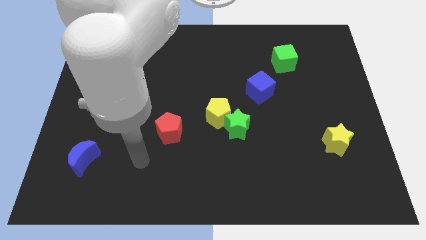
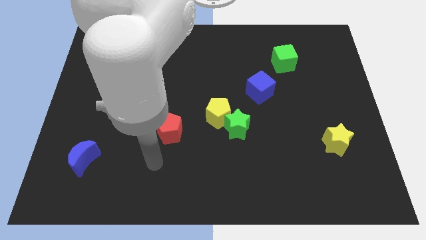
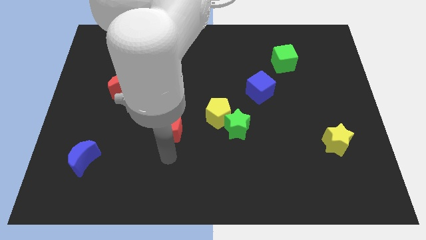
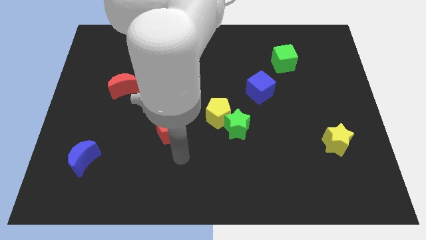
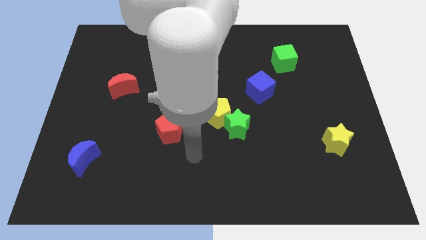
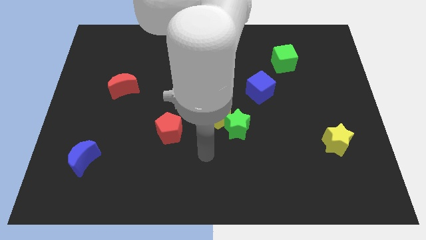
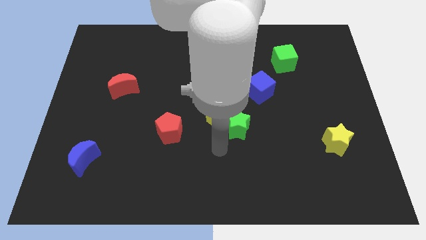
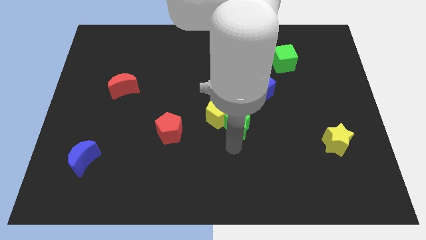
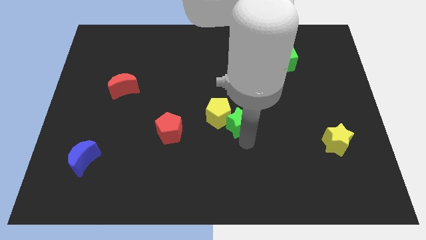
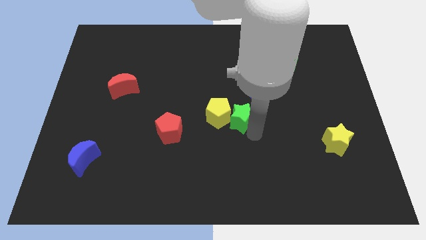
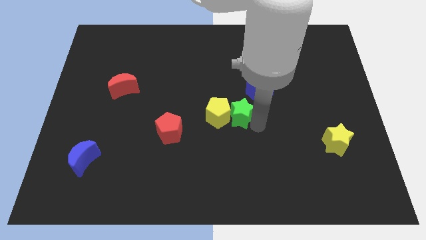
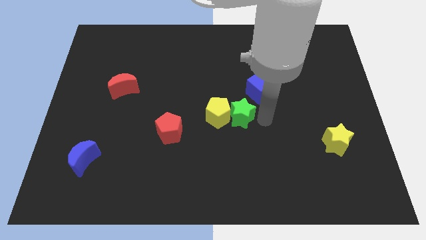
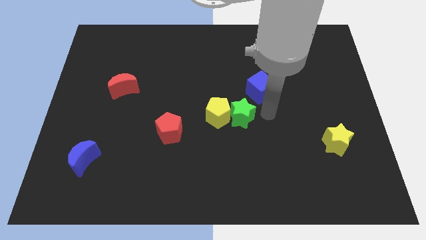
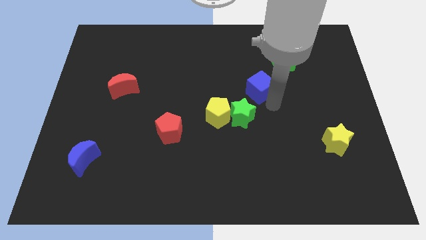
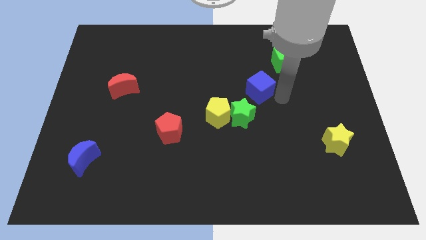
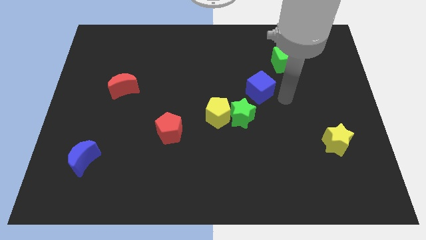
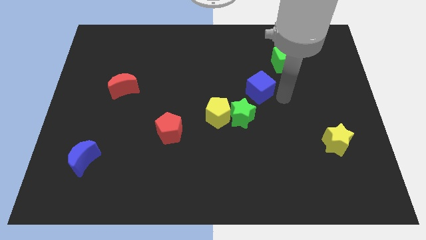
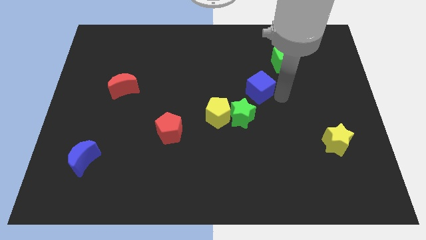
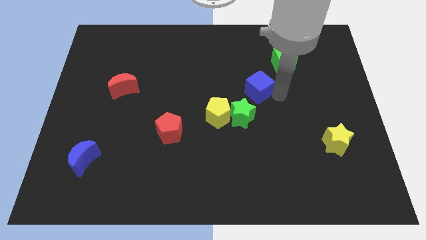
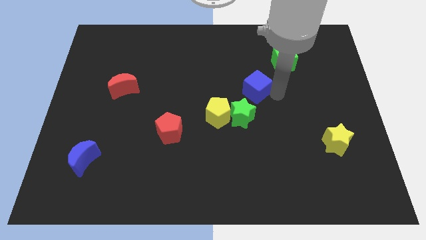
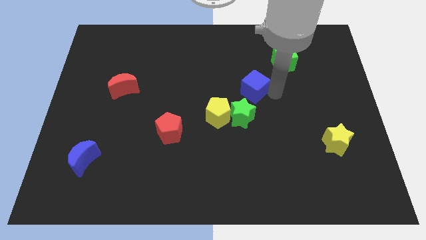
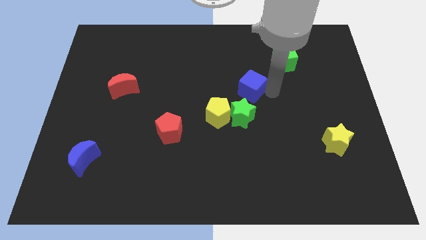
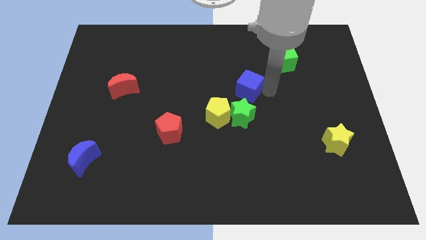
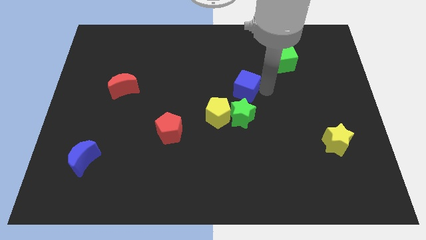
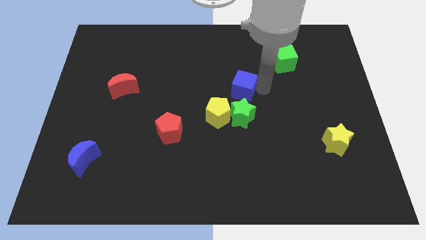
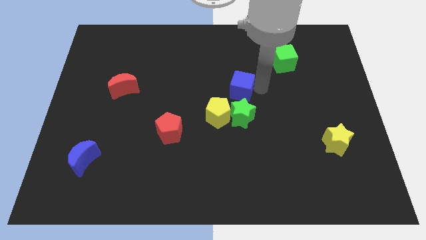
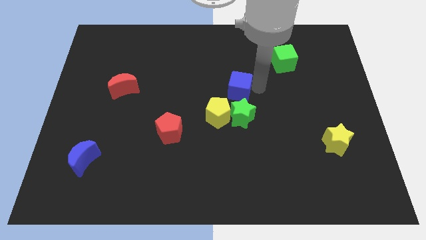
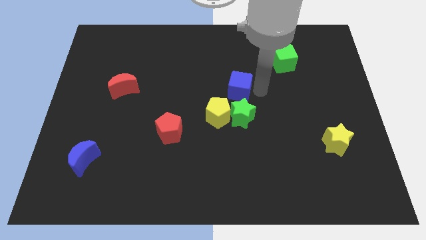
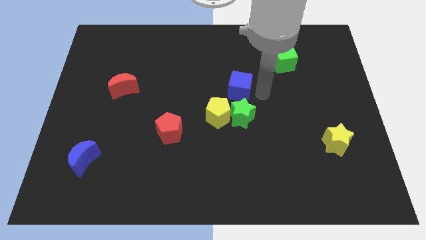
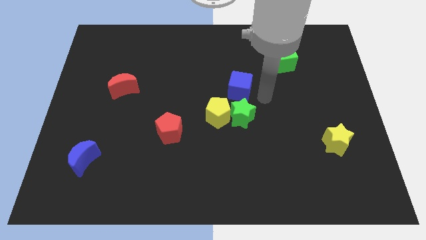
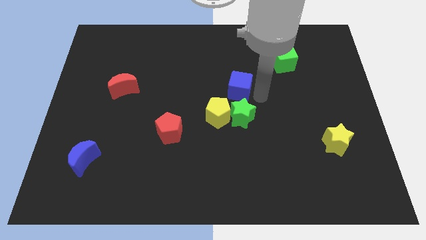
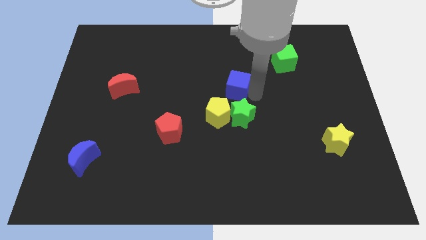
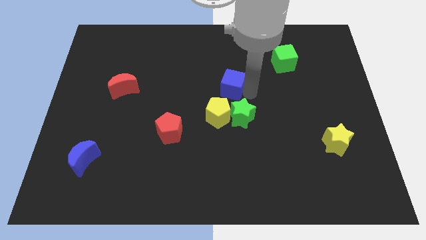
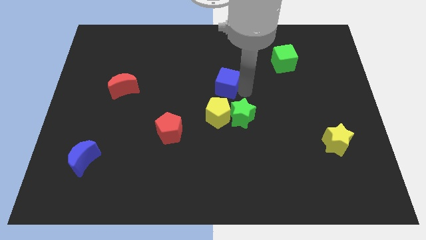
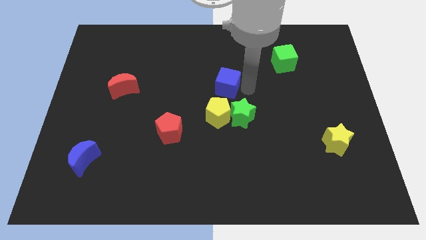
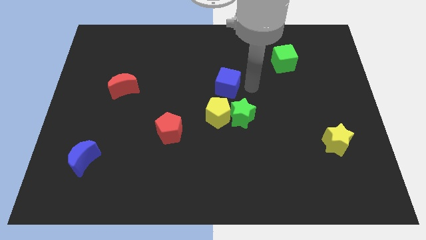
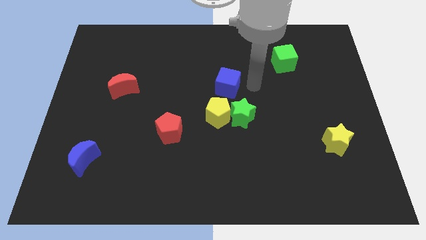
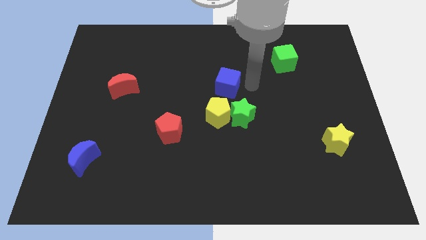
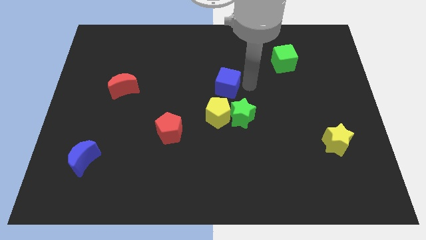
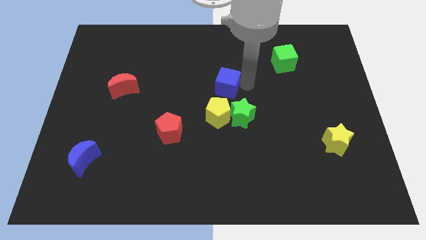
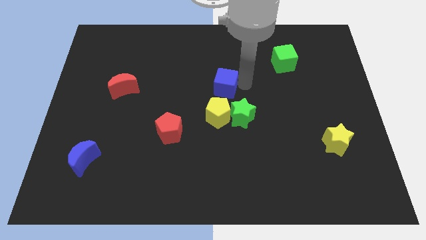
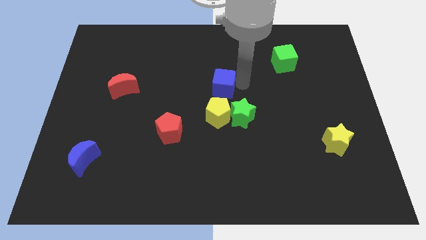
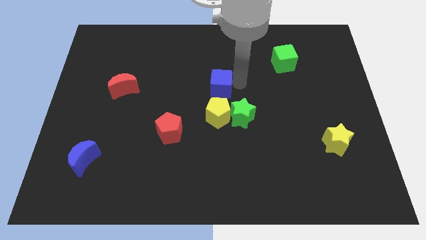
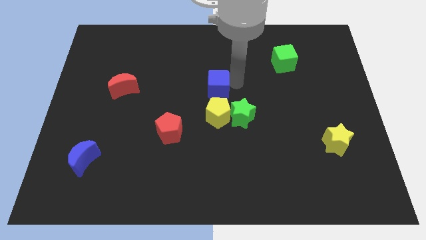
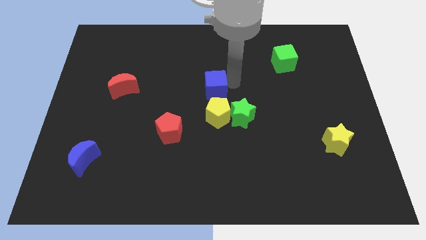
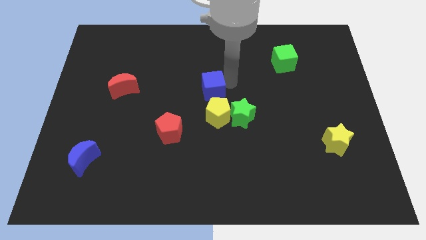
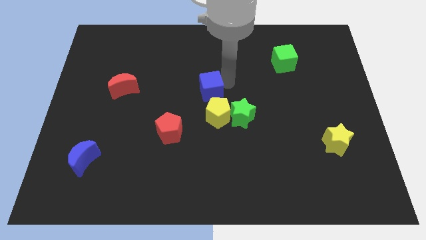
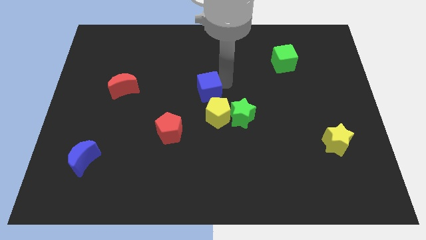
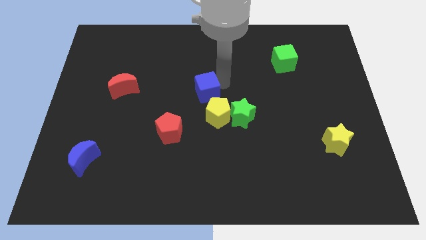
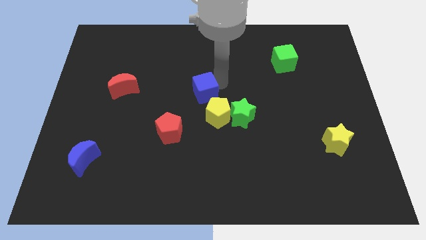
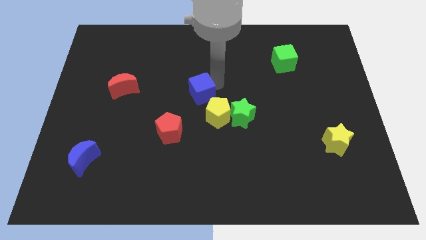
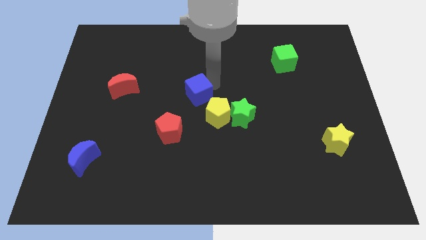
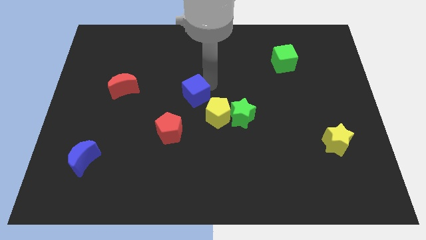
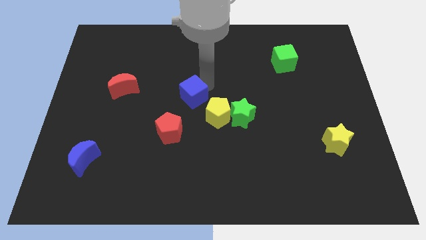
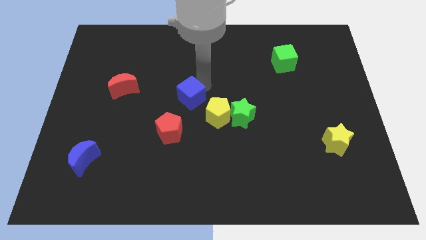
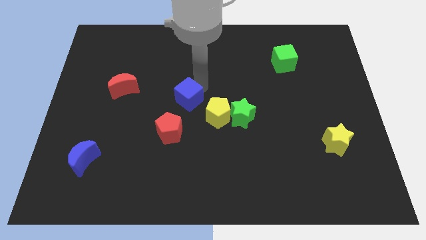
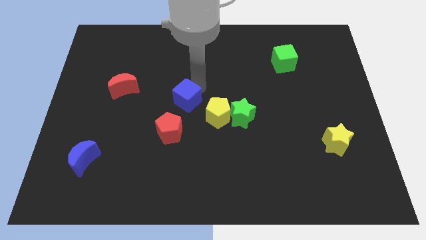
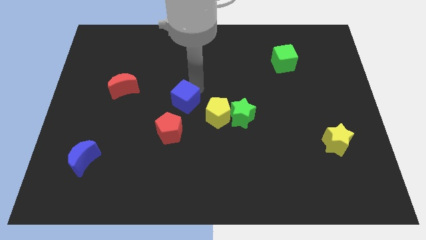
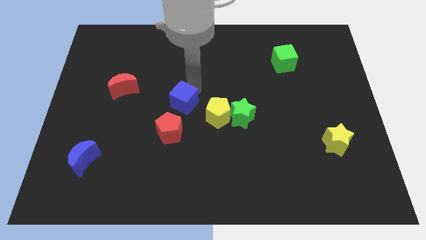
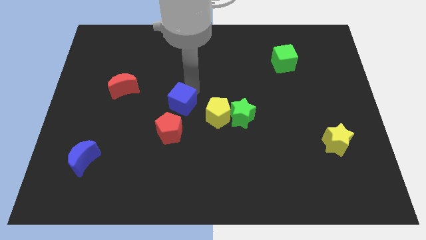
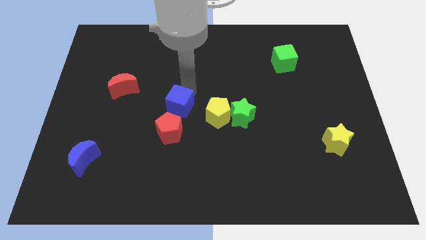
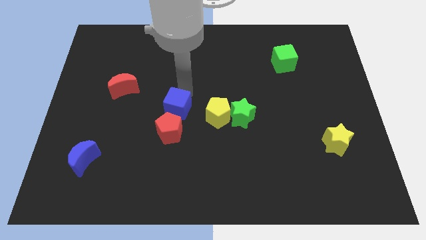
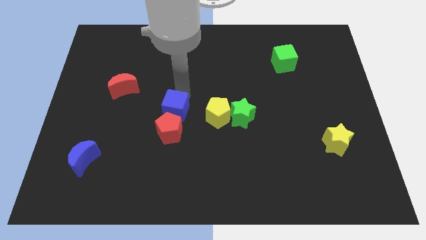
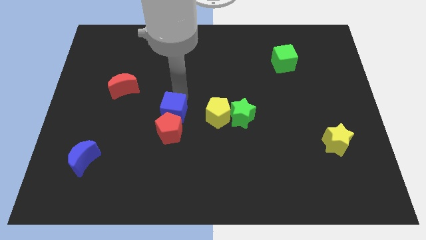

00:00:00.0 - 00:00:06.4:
slide the blue cube to the red pentagon

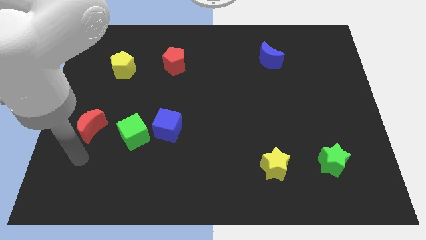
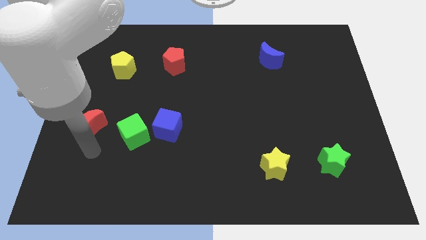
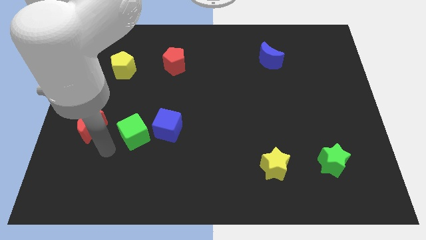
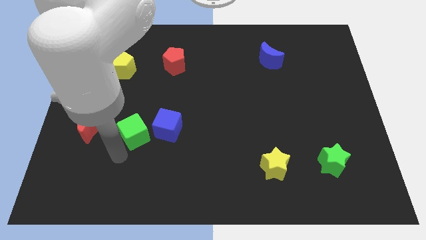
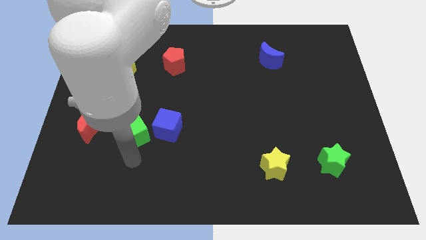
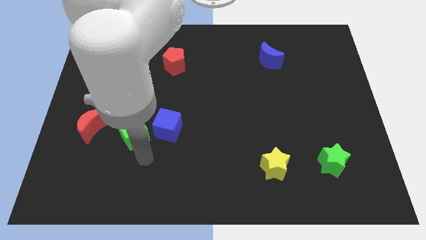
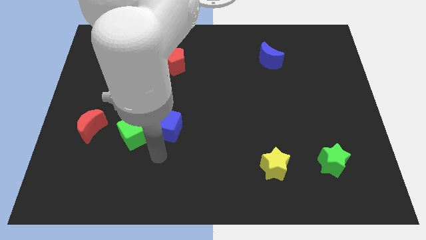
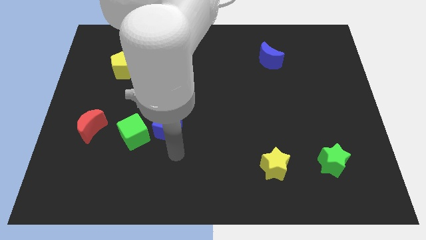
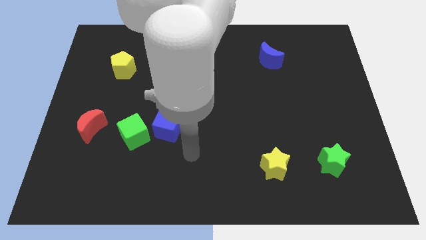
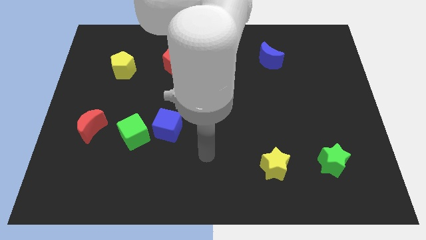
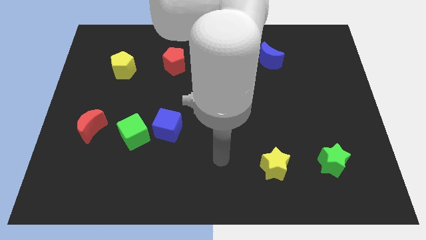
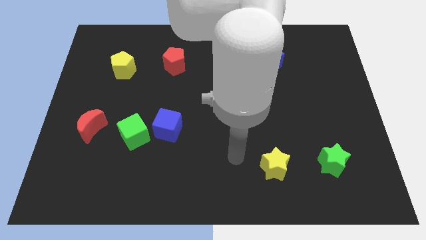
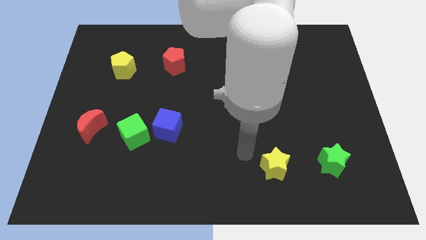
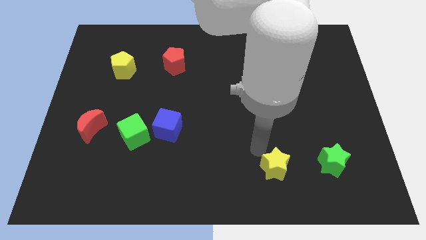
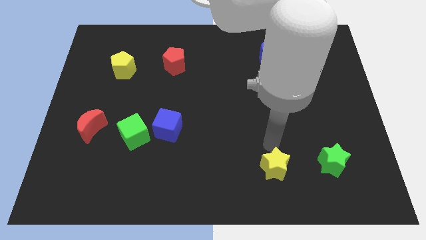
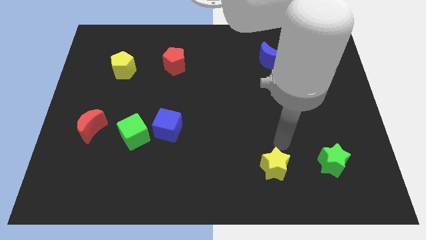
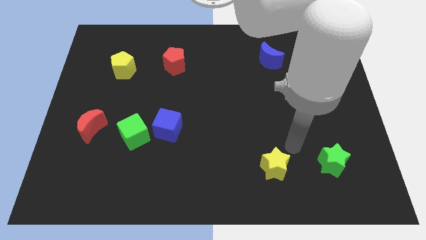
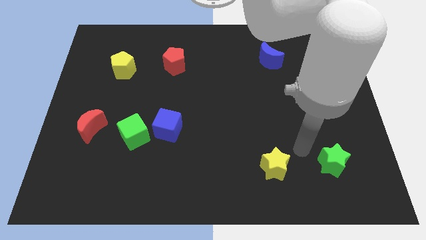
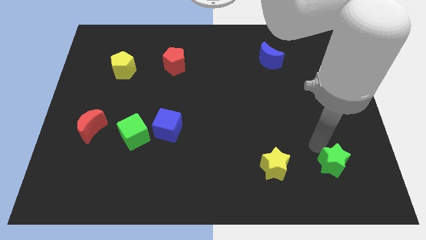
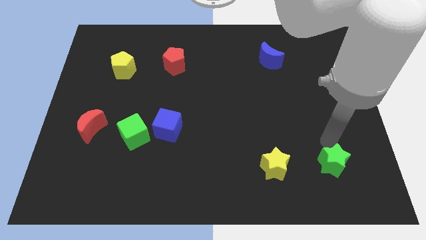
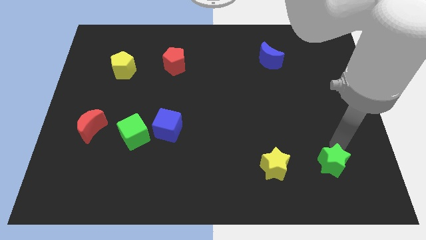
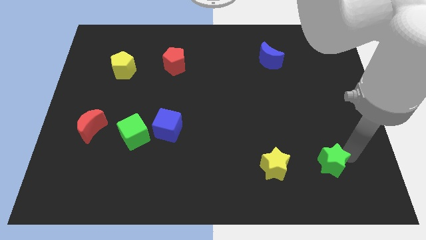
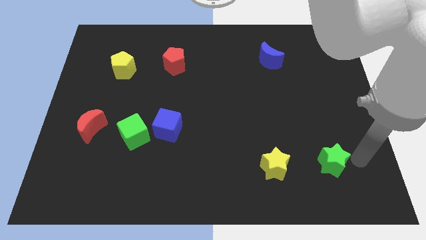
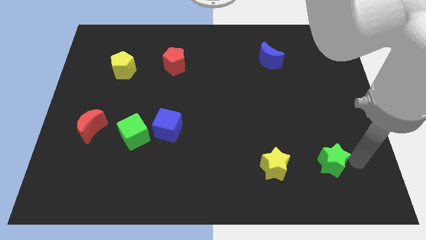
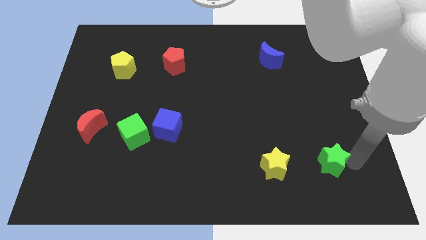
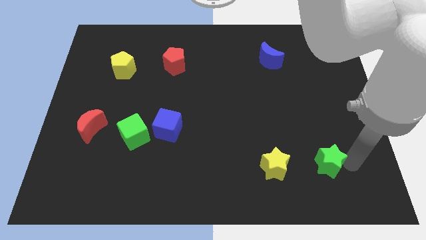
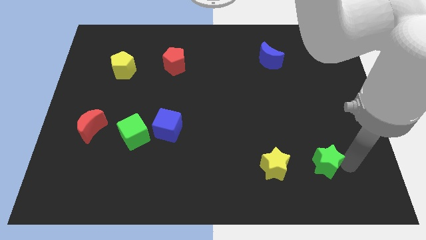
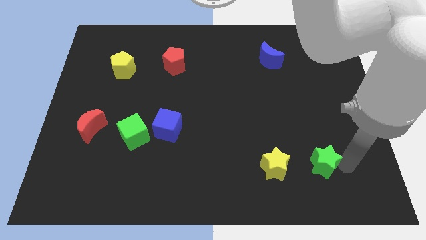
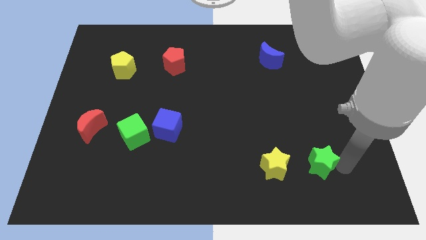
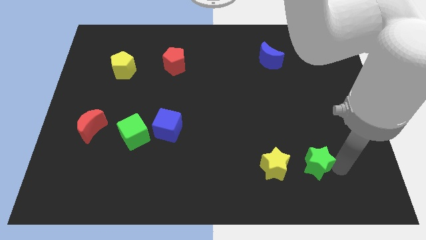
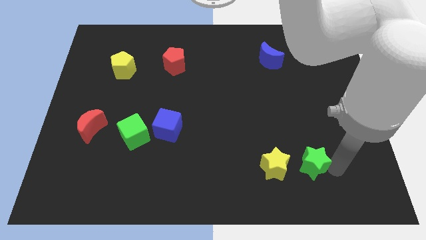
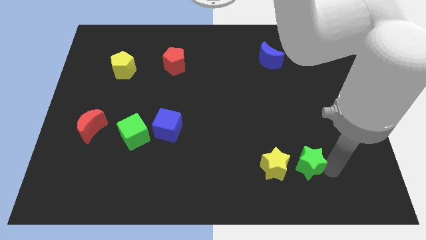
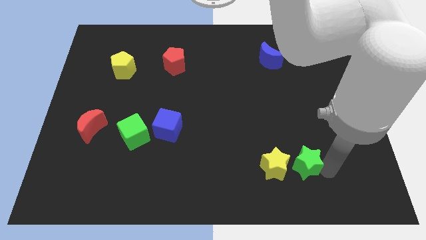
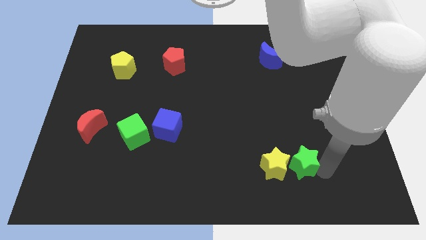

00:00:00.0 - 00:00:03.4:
slide the green star towards the yellow star
